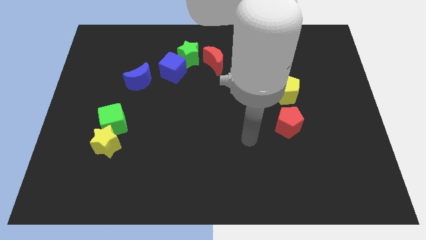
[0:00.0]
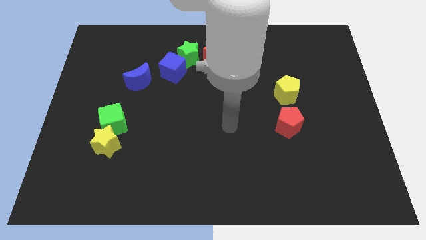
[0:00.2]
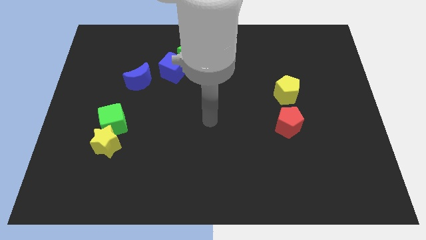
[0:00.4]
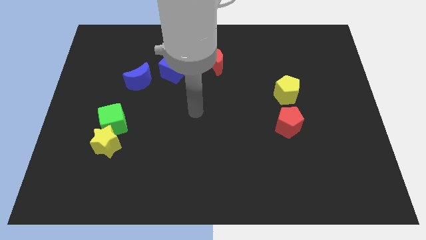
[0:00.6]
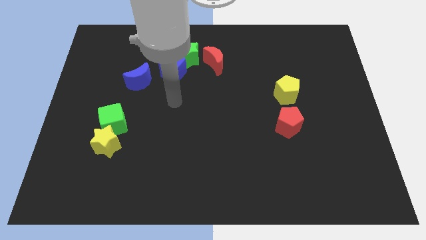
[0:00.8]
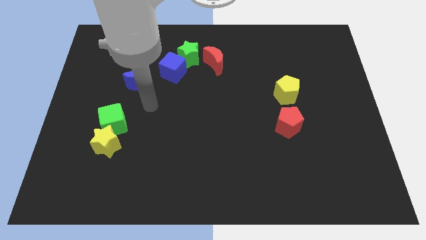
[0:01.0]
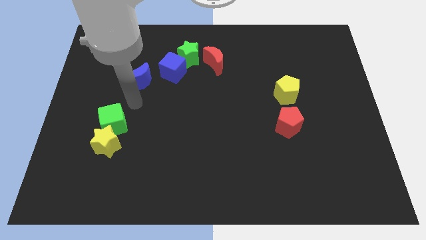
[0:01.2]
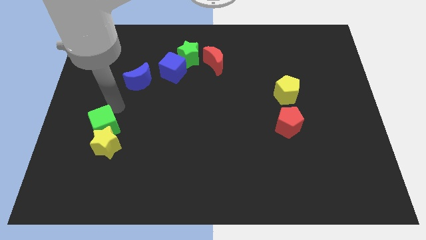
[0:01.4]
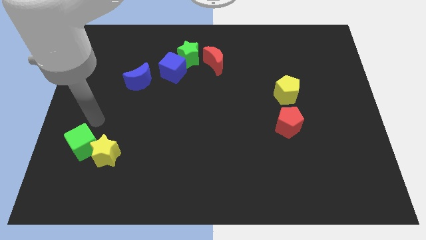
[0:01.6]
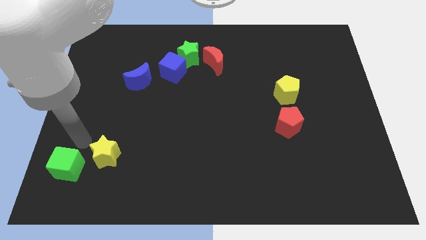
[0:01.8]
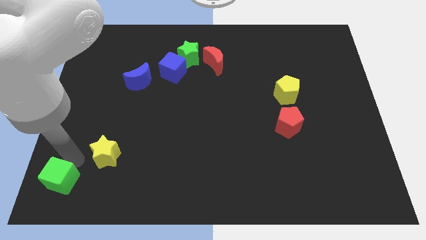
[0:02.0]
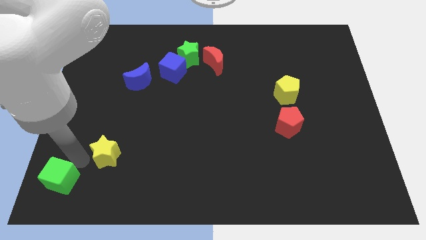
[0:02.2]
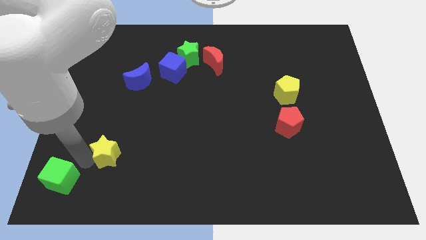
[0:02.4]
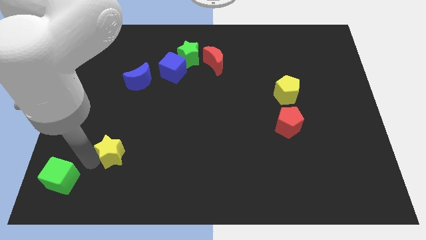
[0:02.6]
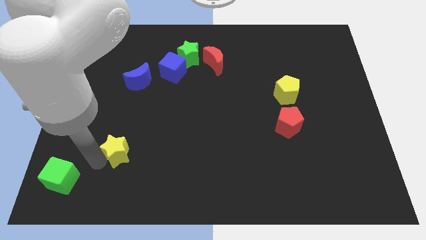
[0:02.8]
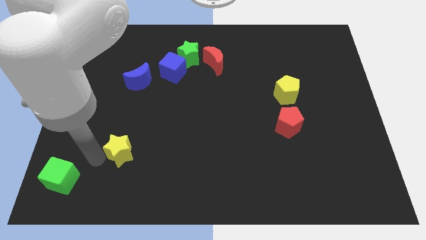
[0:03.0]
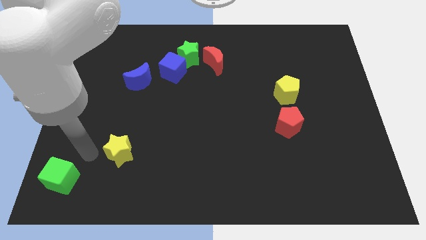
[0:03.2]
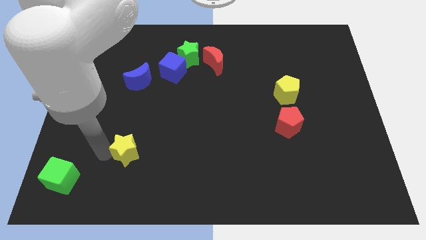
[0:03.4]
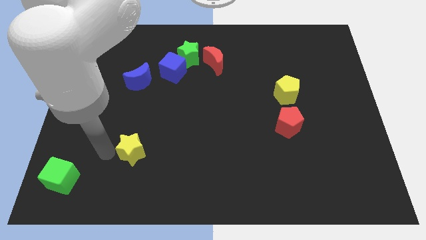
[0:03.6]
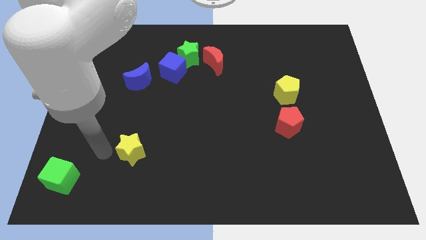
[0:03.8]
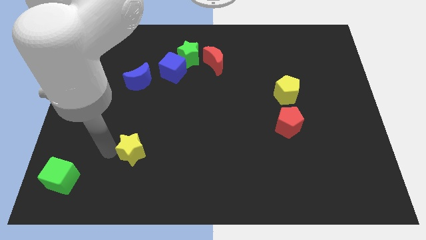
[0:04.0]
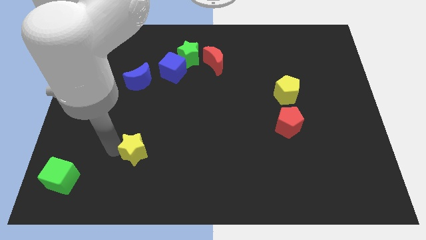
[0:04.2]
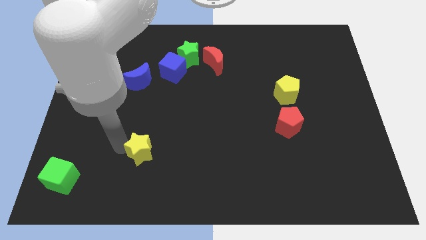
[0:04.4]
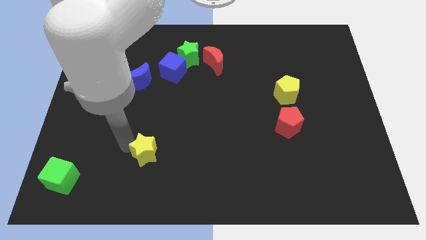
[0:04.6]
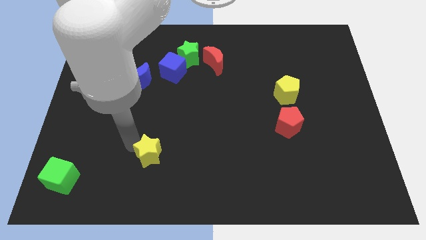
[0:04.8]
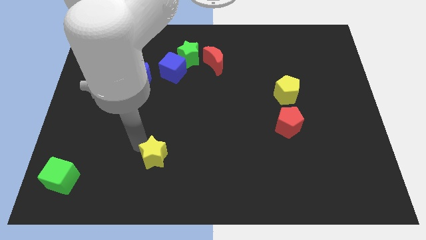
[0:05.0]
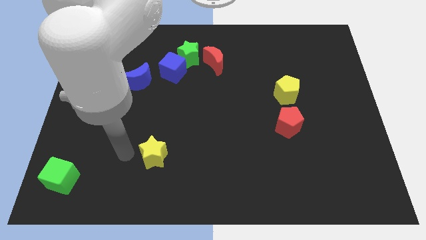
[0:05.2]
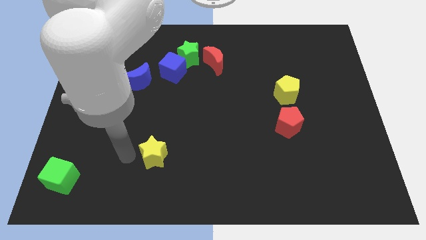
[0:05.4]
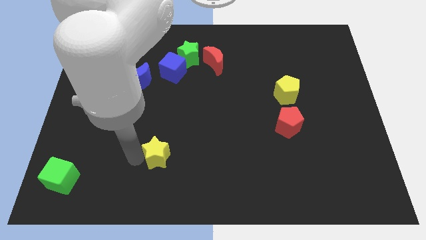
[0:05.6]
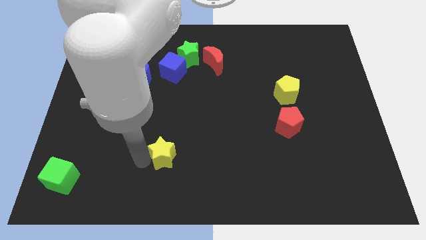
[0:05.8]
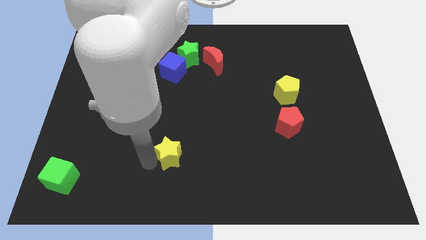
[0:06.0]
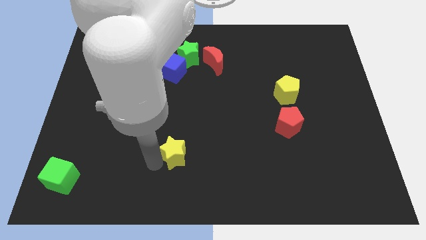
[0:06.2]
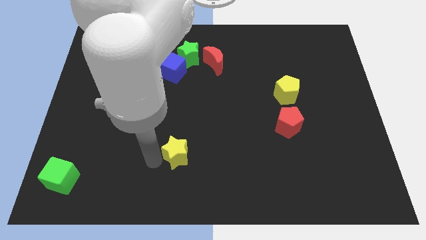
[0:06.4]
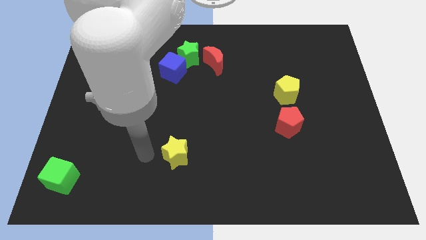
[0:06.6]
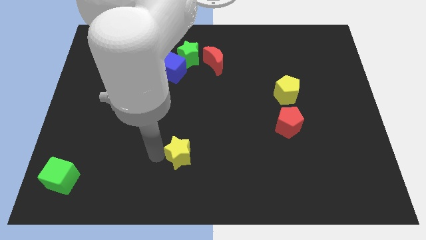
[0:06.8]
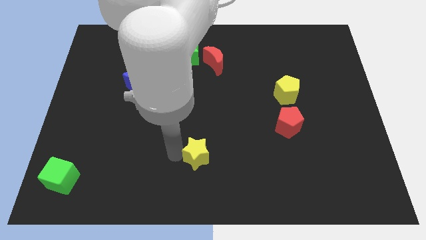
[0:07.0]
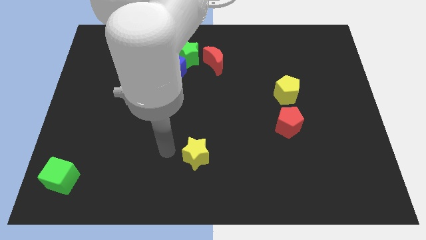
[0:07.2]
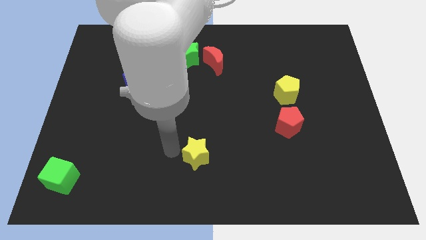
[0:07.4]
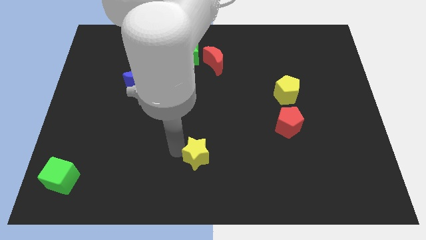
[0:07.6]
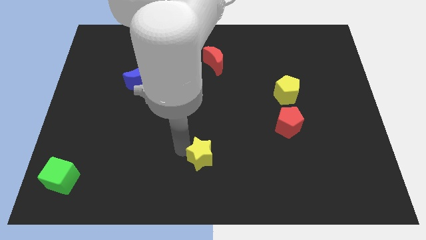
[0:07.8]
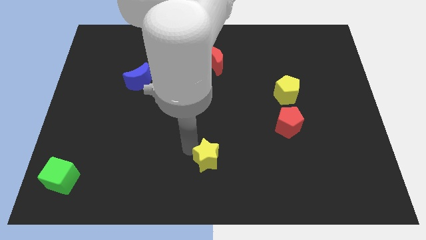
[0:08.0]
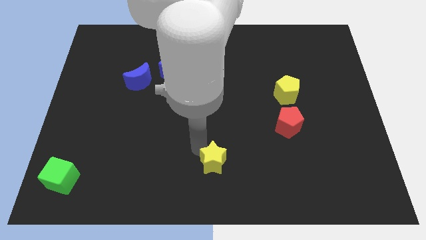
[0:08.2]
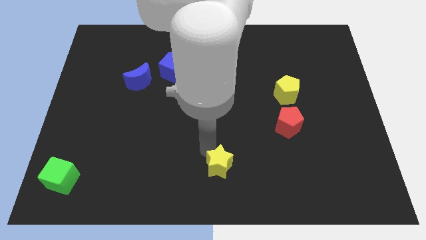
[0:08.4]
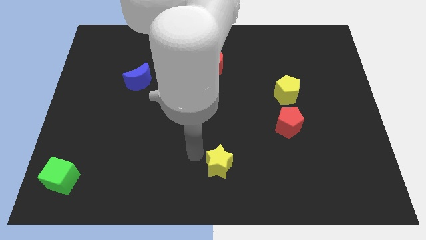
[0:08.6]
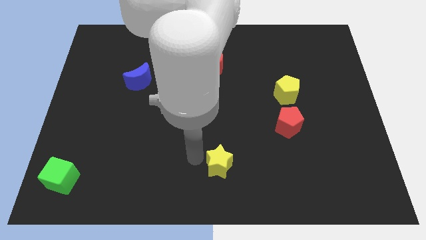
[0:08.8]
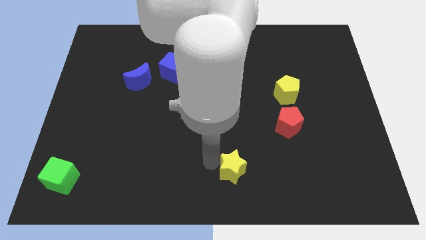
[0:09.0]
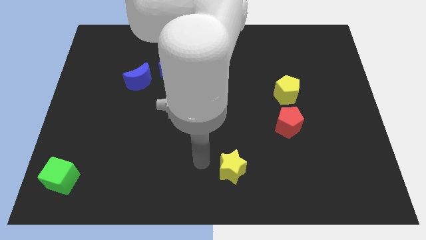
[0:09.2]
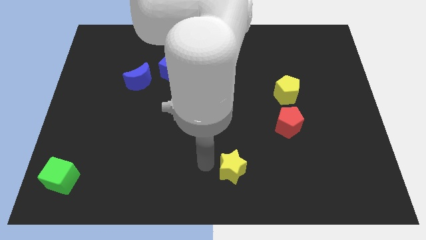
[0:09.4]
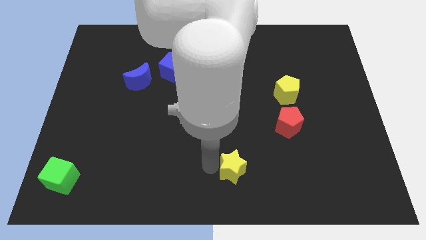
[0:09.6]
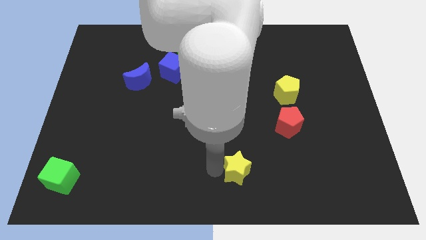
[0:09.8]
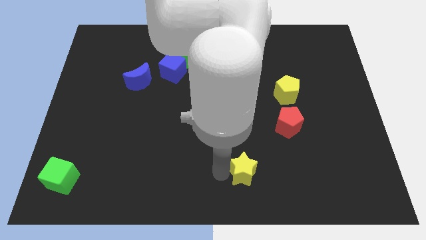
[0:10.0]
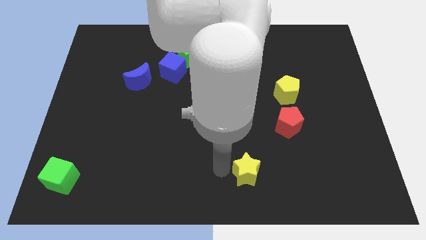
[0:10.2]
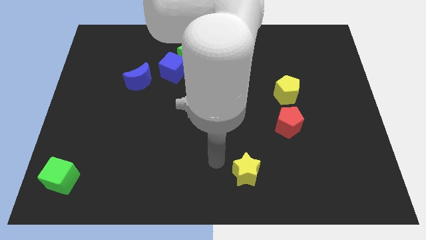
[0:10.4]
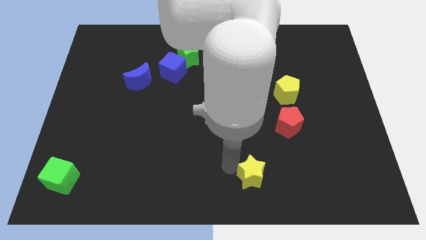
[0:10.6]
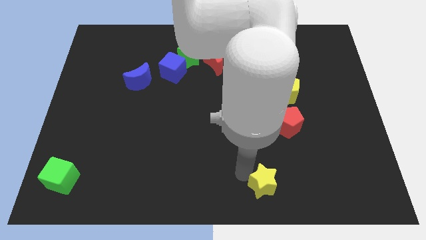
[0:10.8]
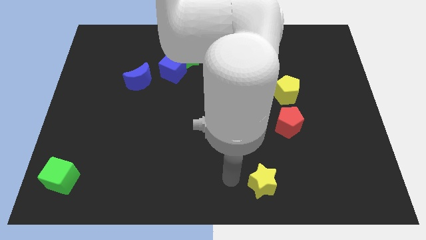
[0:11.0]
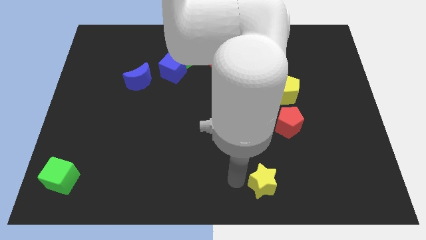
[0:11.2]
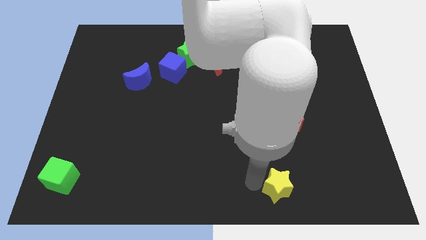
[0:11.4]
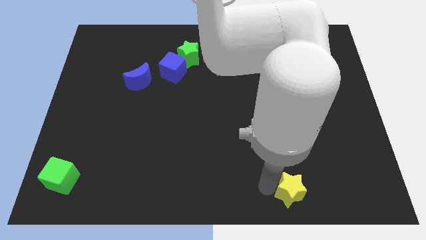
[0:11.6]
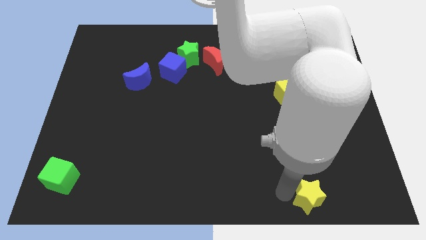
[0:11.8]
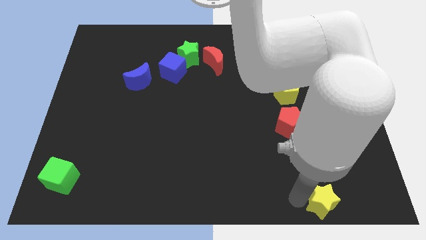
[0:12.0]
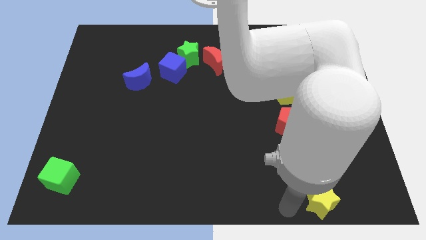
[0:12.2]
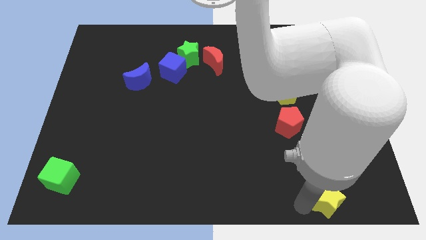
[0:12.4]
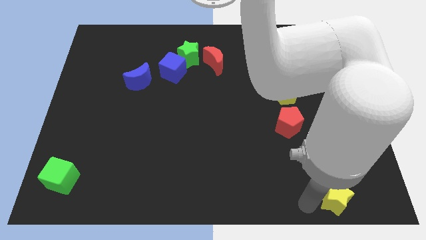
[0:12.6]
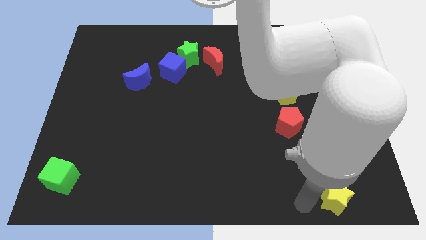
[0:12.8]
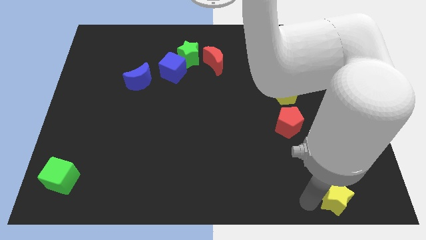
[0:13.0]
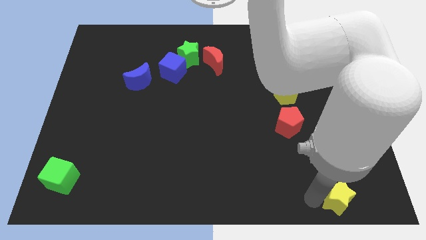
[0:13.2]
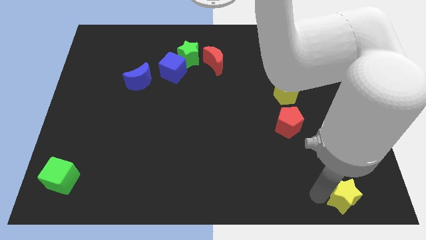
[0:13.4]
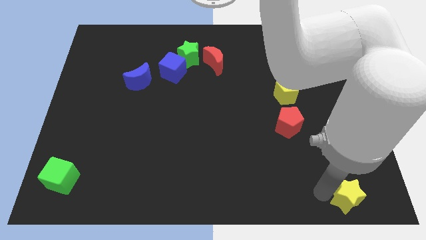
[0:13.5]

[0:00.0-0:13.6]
push the yellow star to the bottom right
